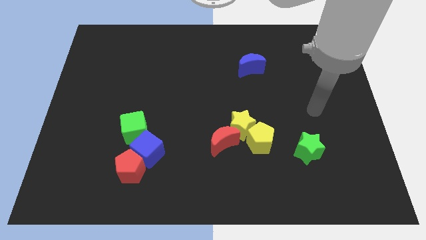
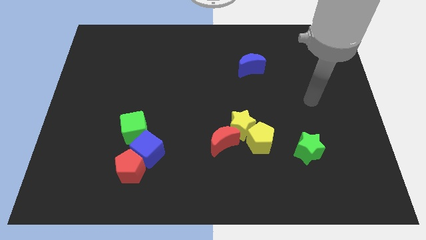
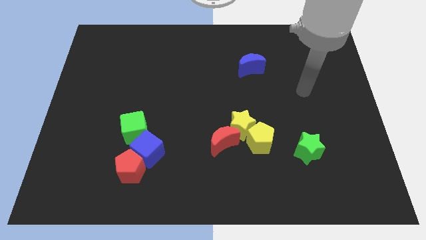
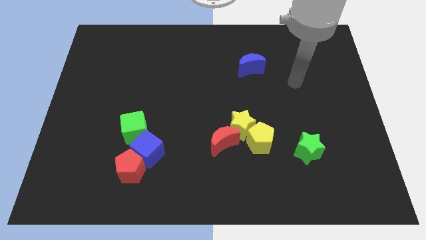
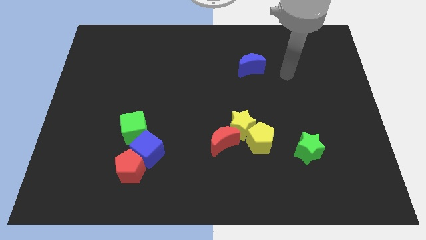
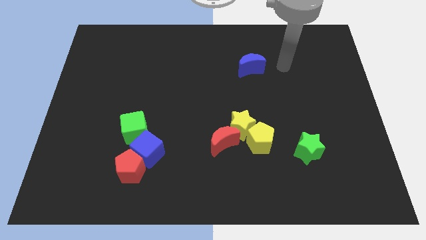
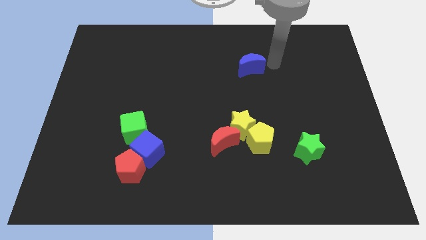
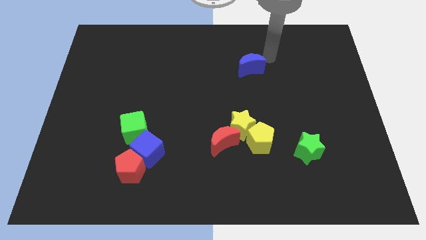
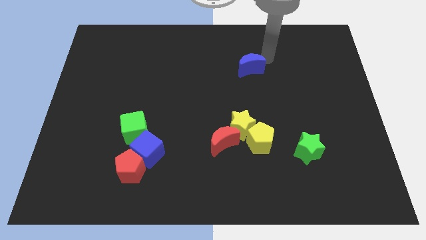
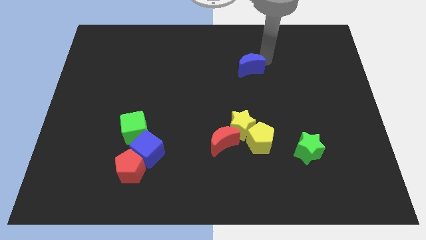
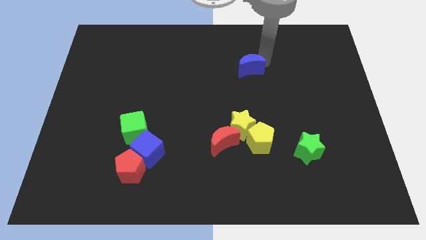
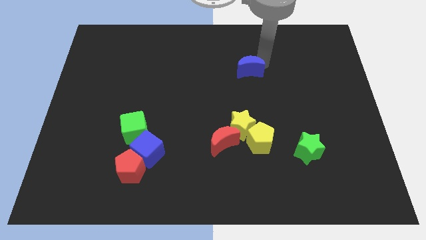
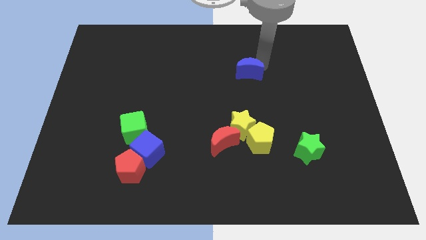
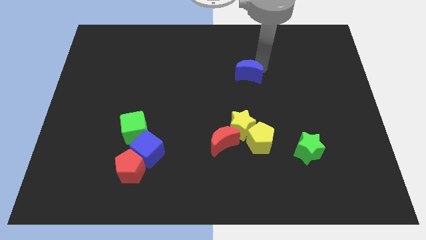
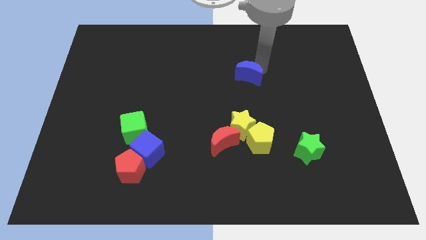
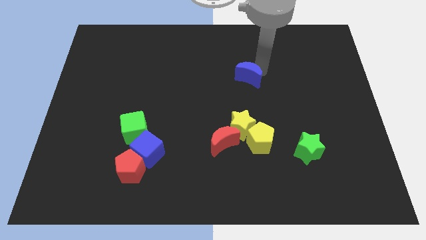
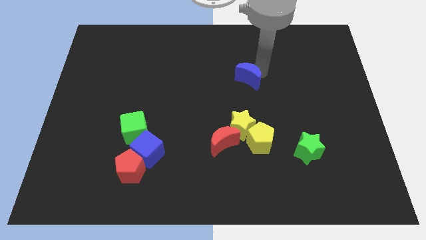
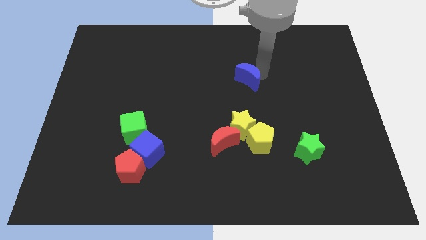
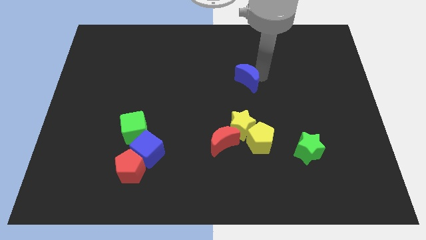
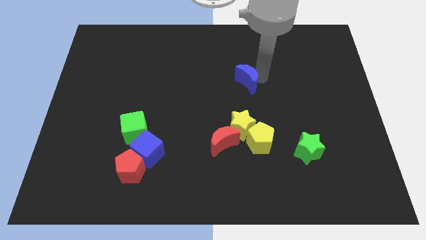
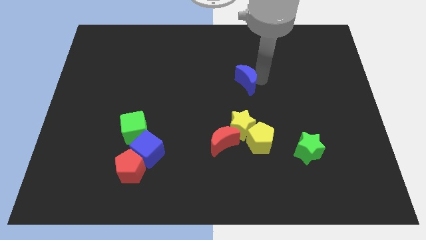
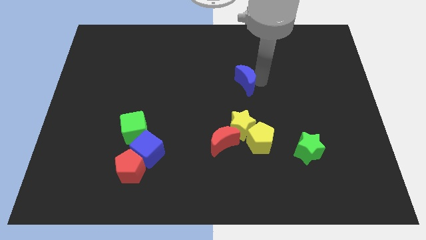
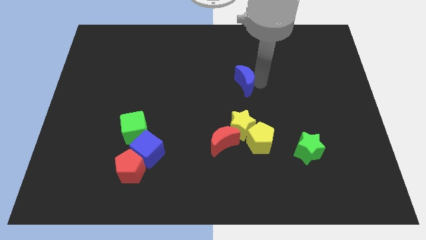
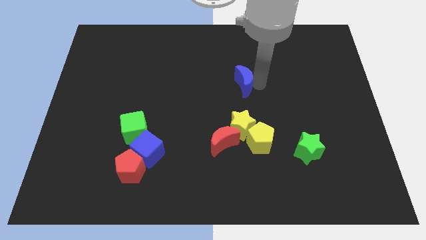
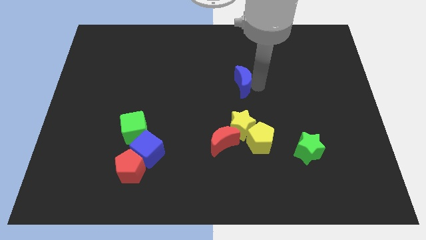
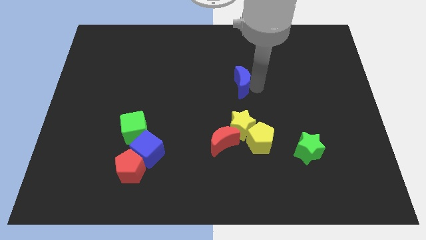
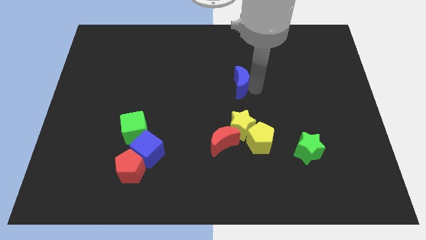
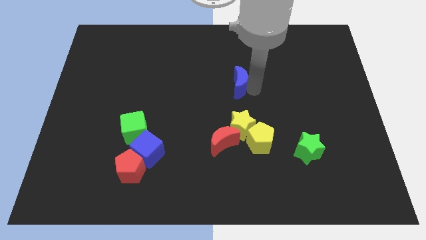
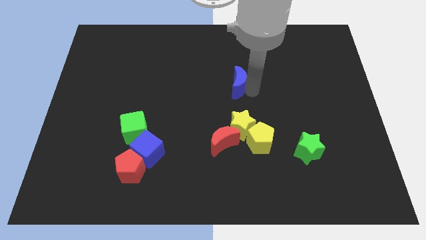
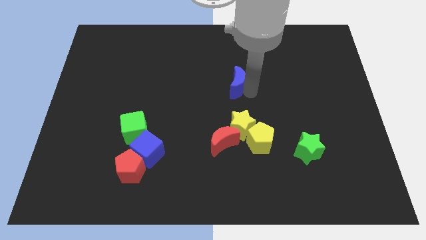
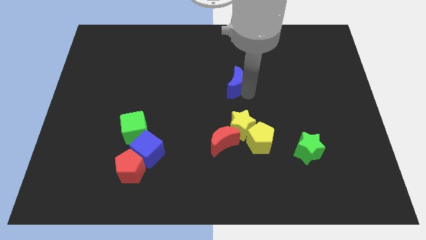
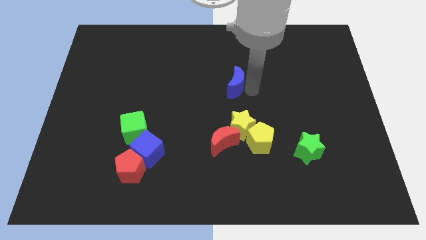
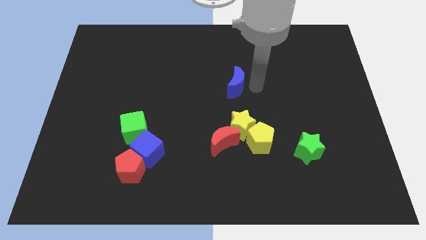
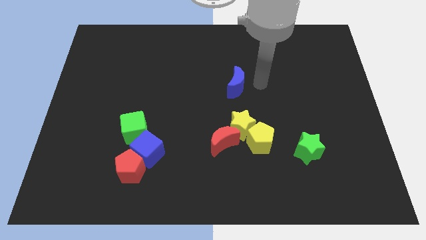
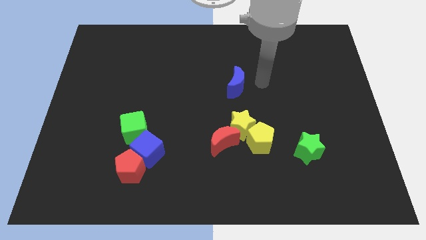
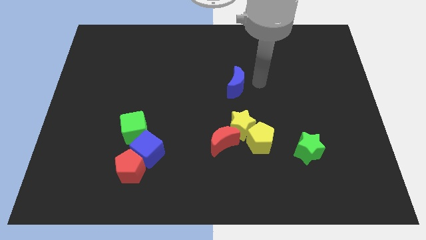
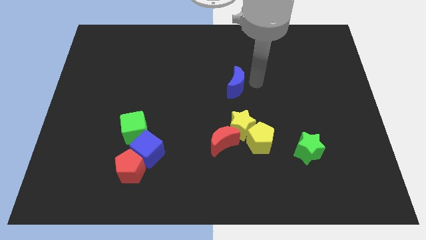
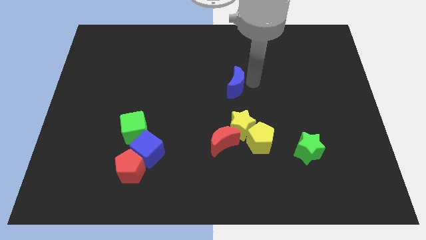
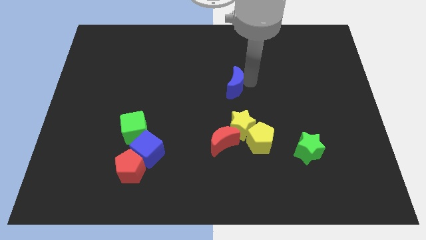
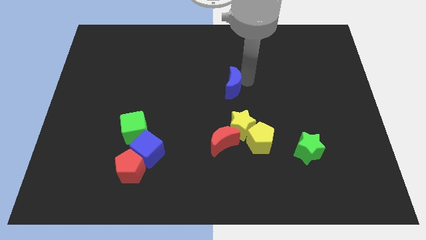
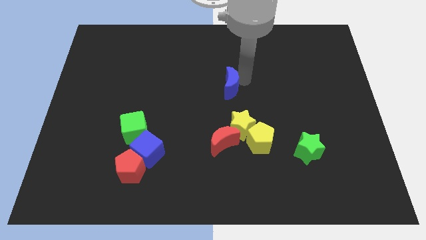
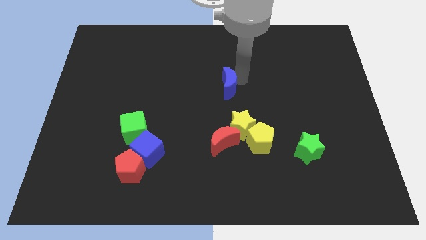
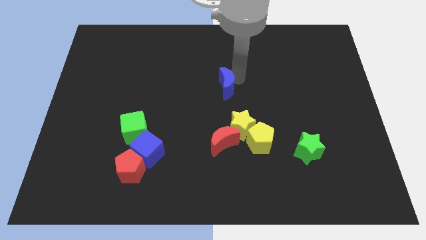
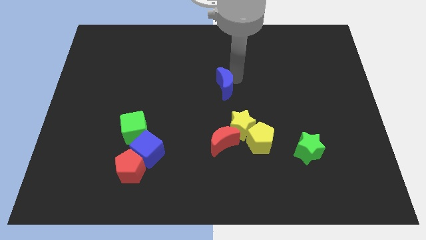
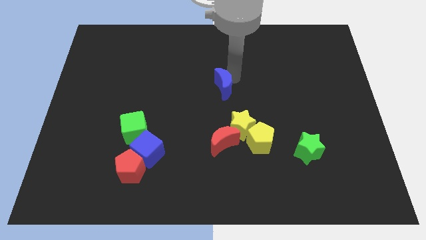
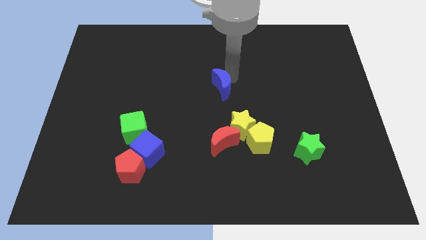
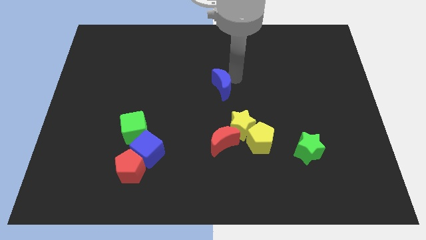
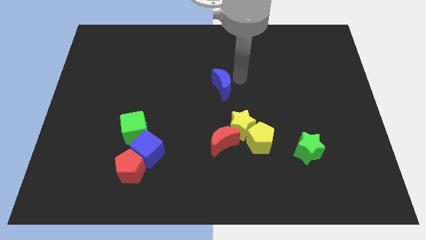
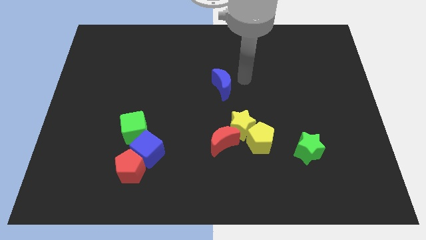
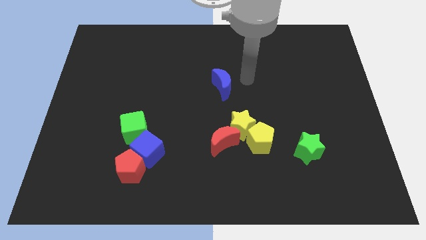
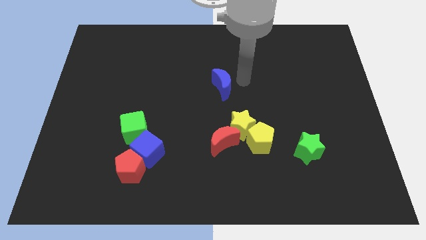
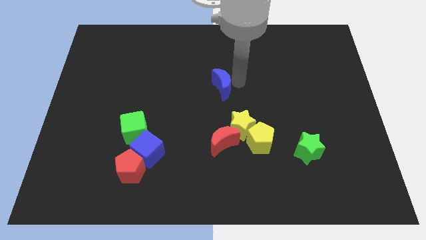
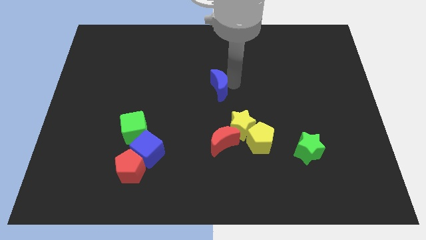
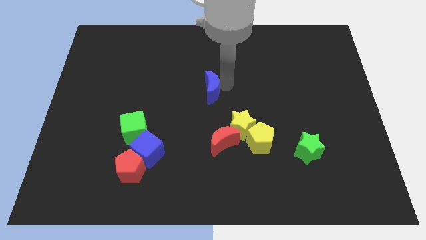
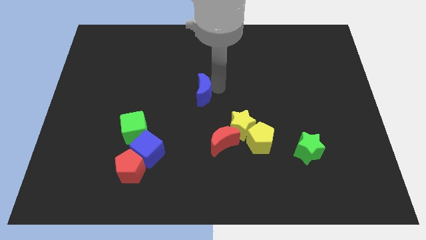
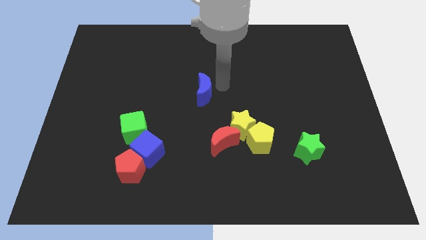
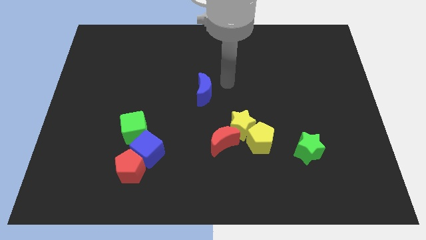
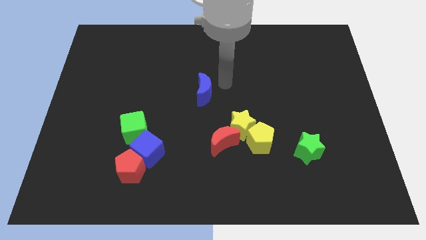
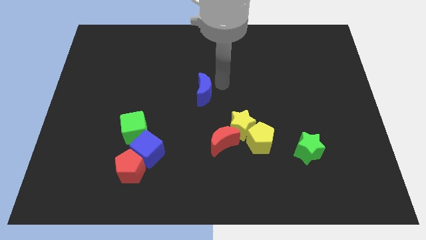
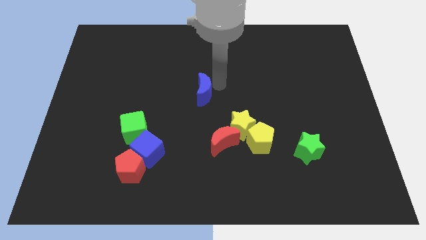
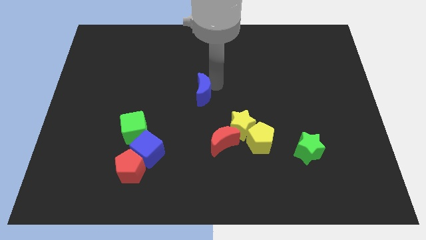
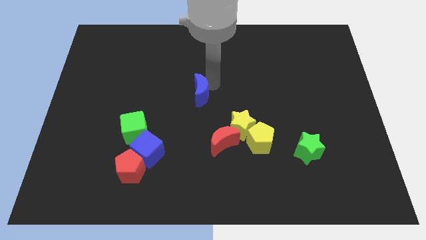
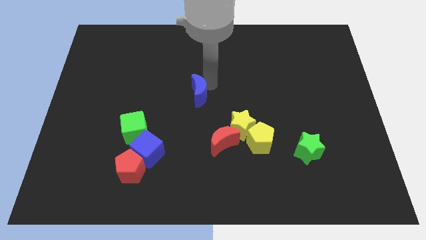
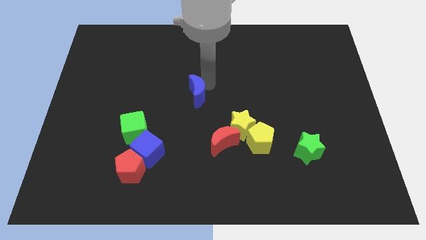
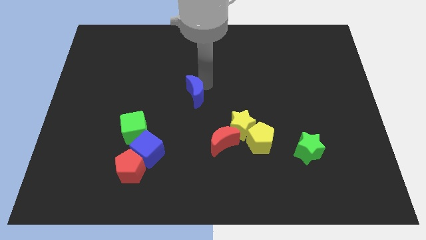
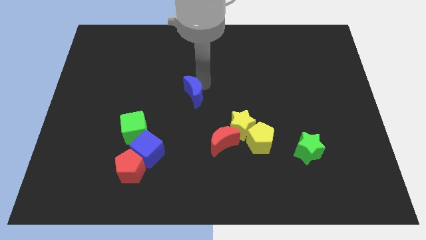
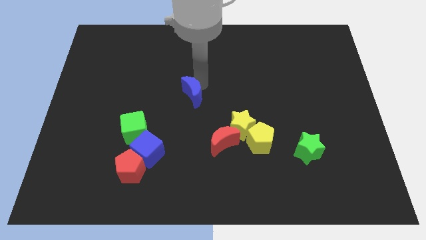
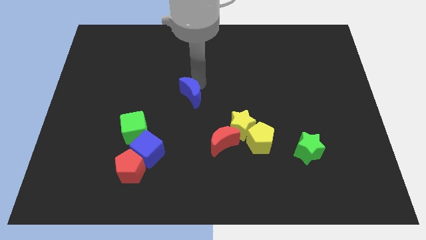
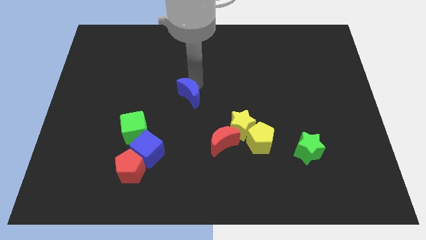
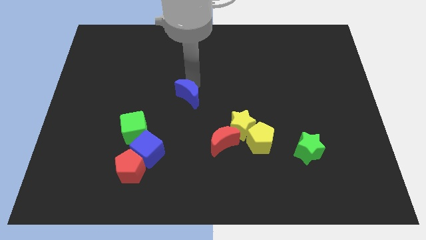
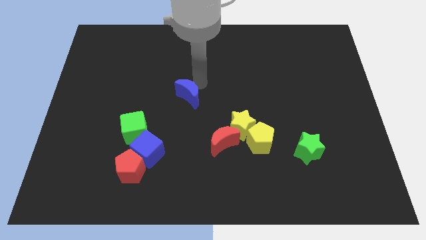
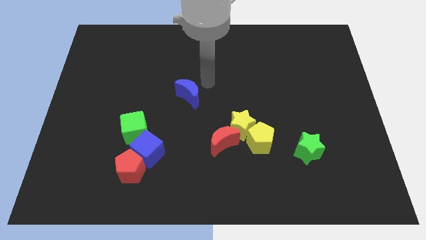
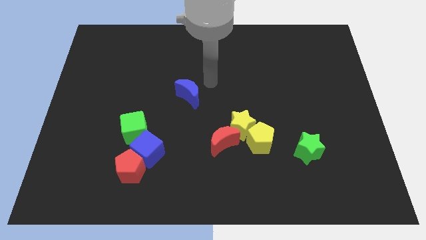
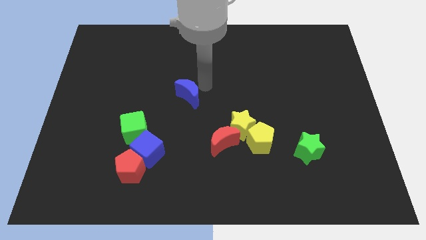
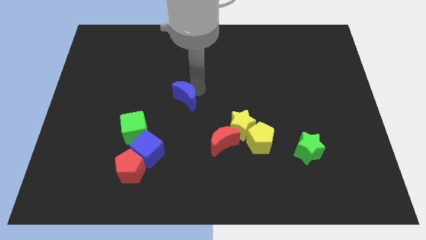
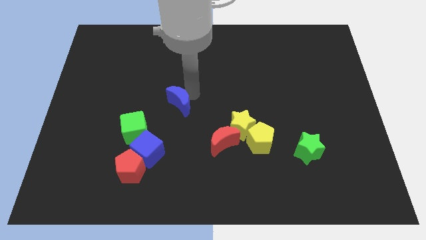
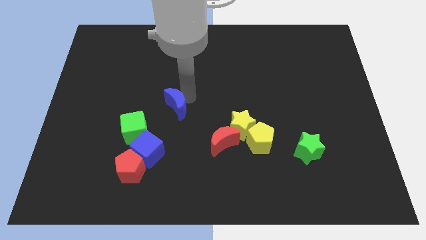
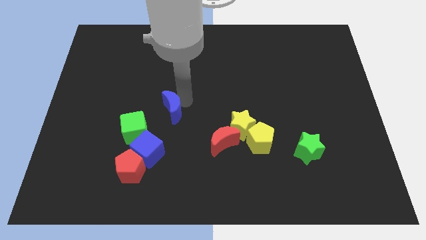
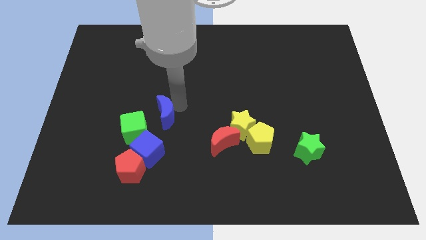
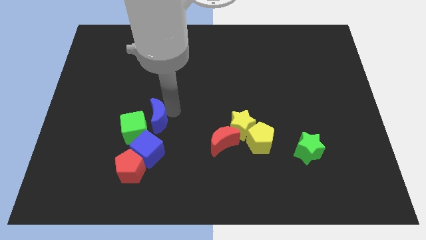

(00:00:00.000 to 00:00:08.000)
move the blue moon close to the green cube
